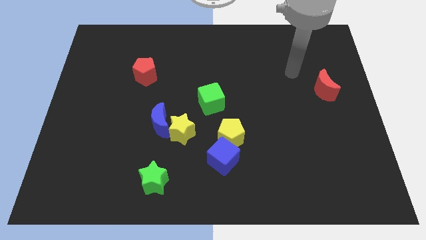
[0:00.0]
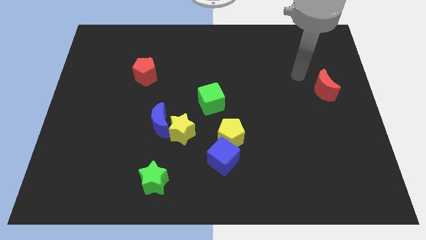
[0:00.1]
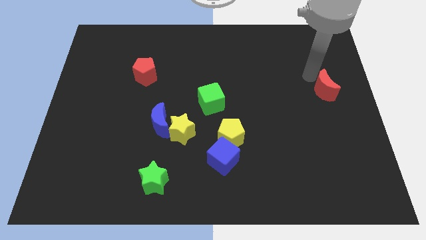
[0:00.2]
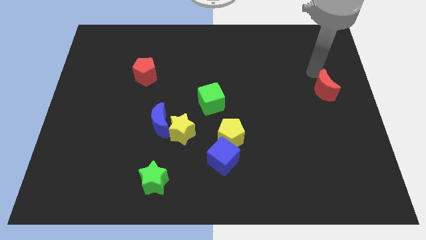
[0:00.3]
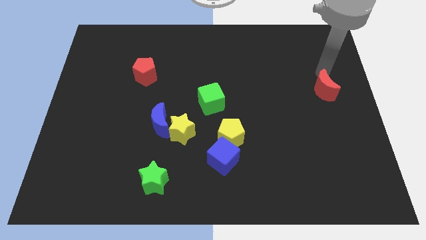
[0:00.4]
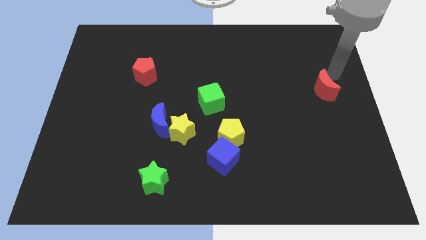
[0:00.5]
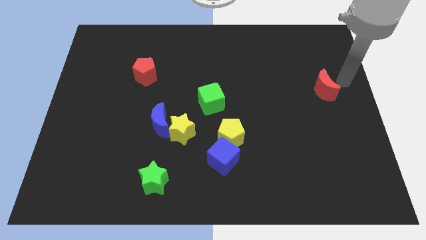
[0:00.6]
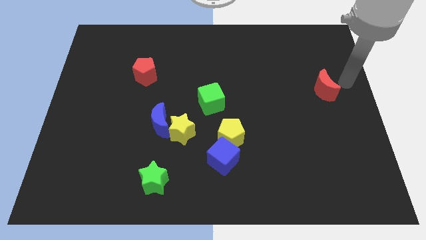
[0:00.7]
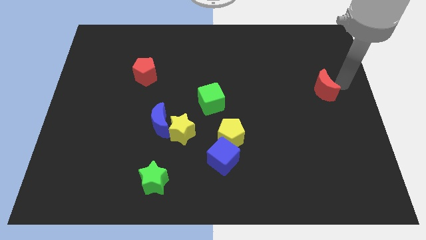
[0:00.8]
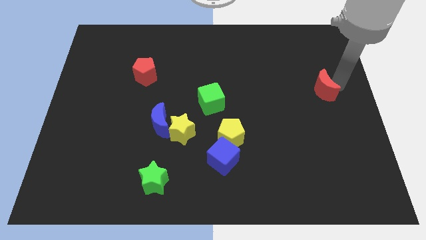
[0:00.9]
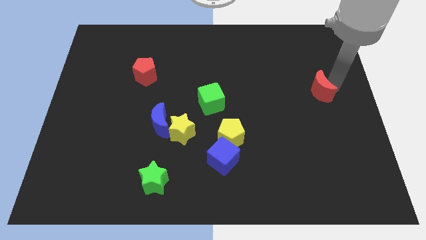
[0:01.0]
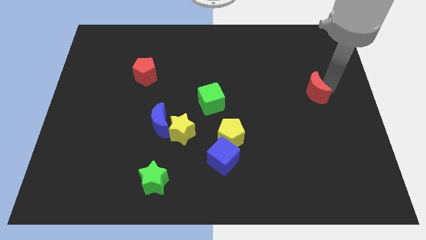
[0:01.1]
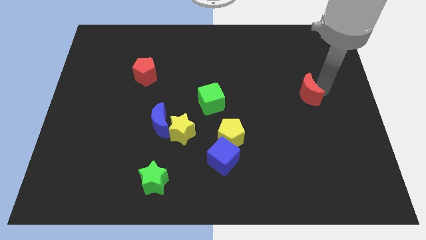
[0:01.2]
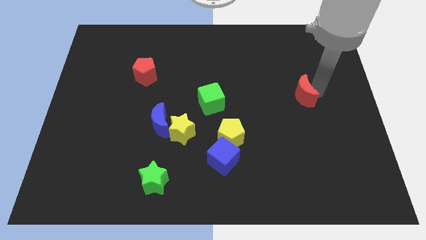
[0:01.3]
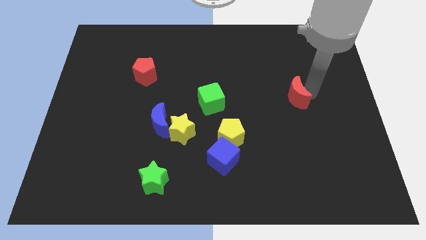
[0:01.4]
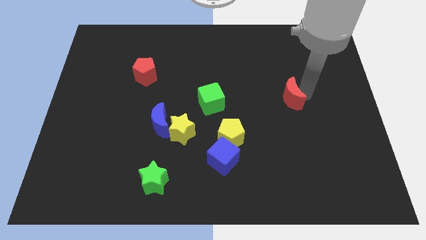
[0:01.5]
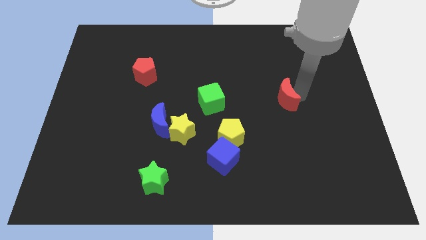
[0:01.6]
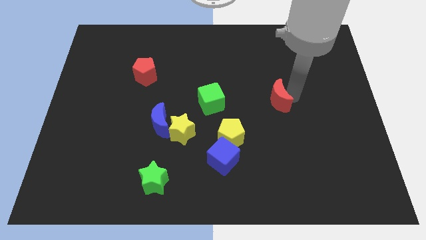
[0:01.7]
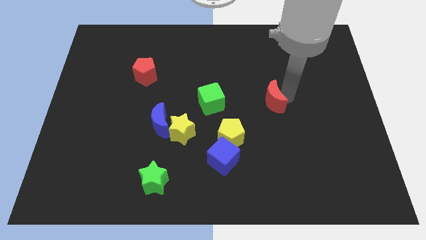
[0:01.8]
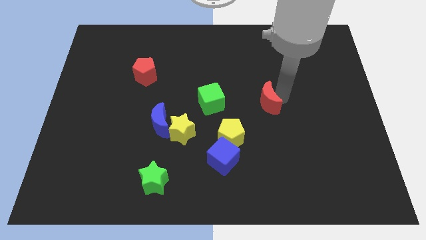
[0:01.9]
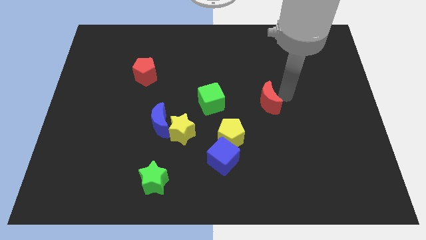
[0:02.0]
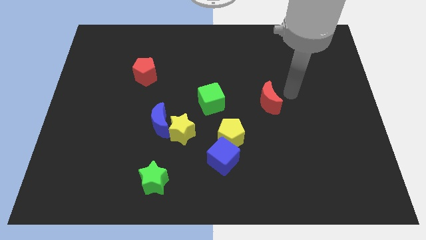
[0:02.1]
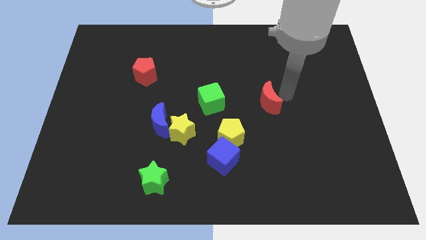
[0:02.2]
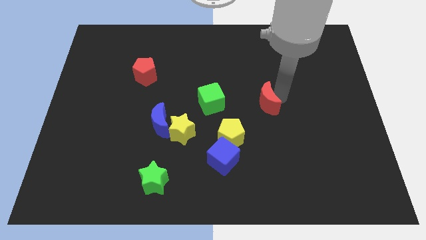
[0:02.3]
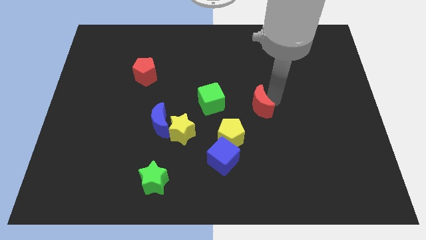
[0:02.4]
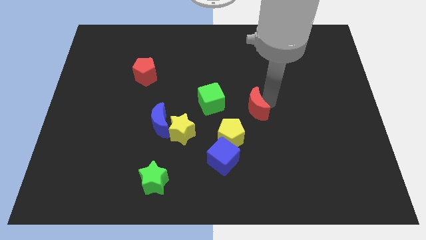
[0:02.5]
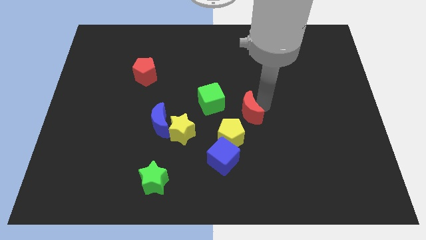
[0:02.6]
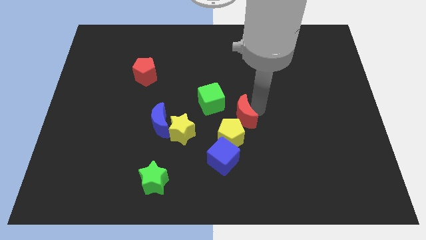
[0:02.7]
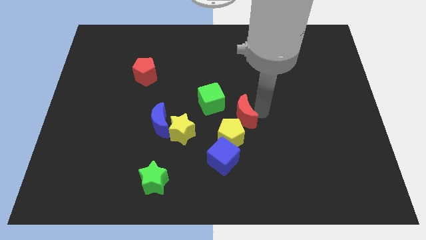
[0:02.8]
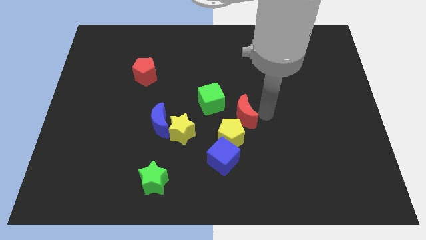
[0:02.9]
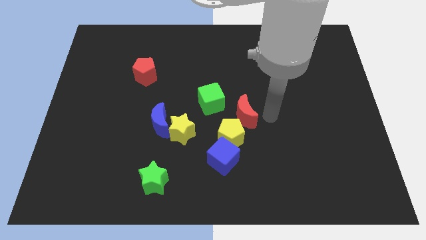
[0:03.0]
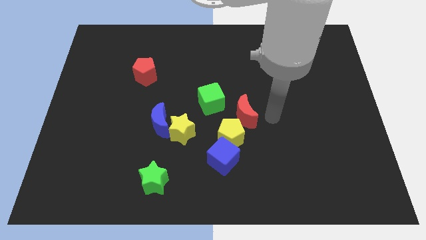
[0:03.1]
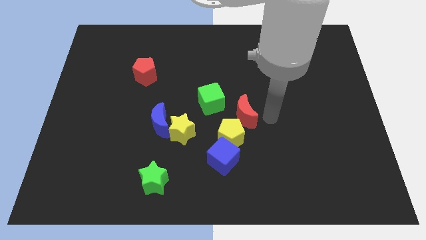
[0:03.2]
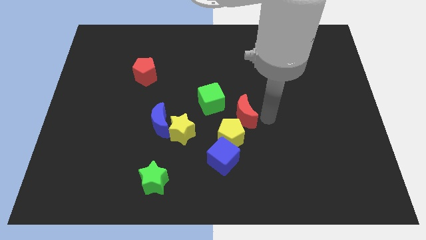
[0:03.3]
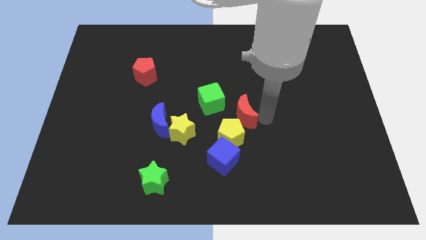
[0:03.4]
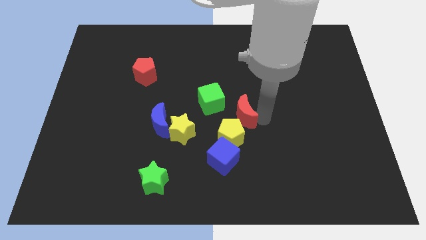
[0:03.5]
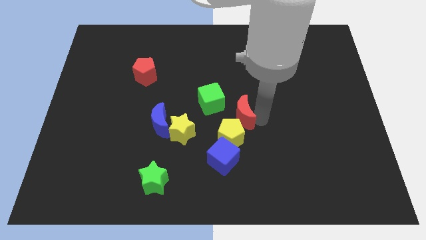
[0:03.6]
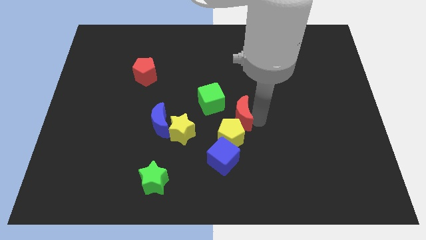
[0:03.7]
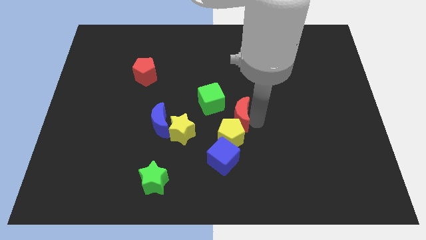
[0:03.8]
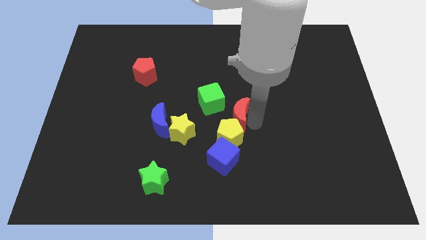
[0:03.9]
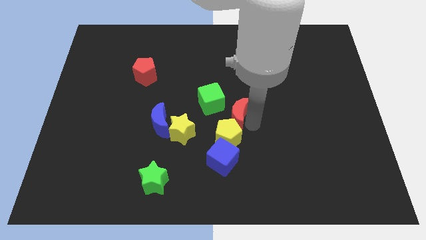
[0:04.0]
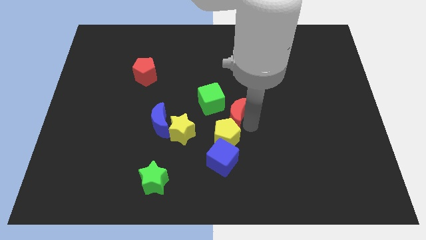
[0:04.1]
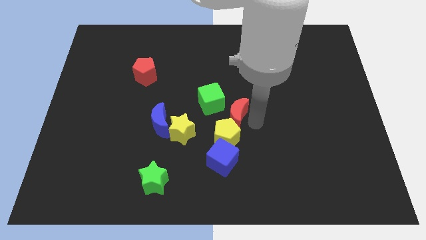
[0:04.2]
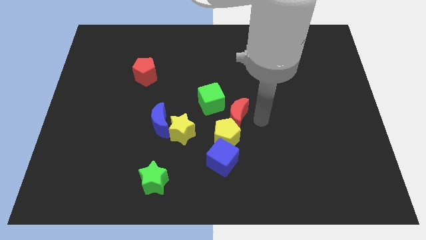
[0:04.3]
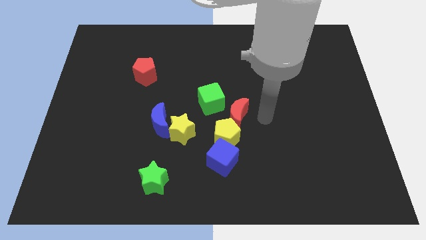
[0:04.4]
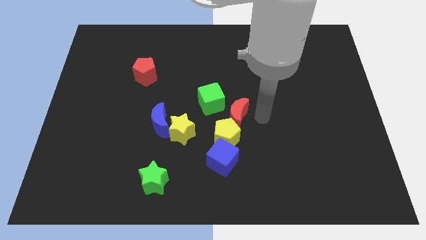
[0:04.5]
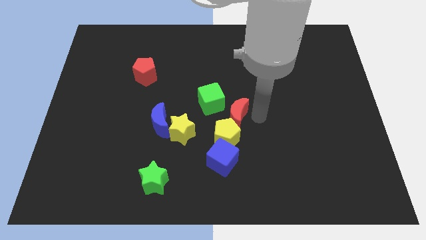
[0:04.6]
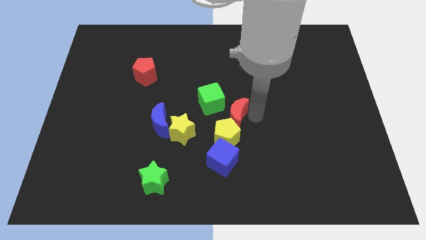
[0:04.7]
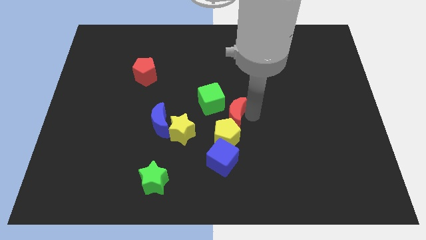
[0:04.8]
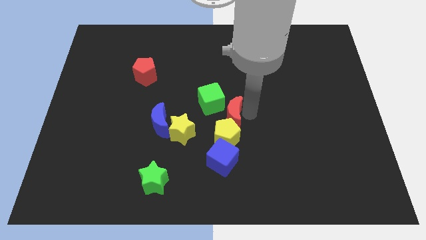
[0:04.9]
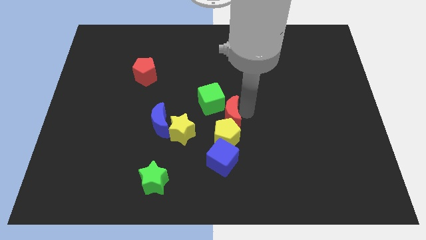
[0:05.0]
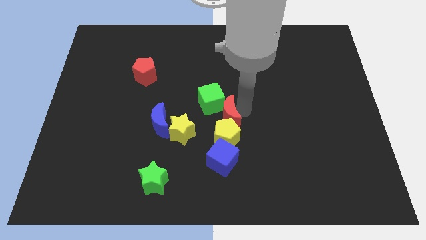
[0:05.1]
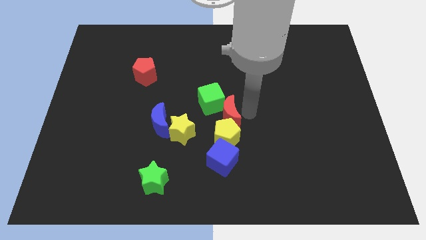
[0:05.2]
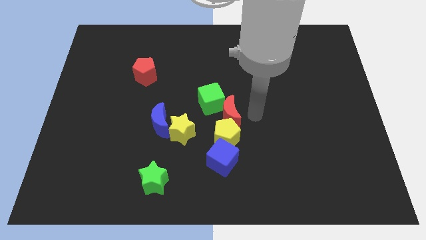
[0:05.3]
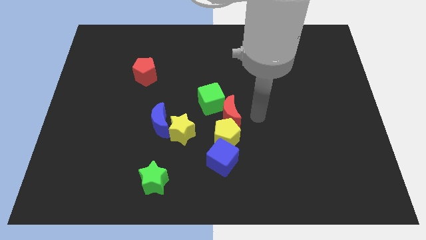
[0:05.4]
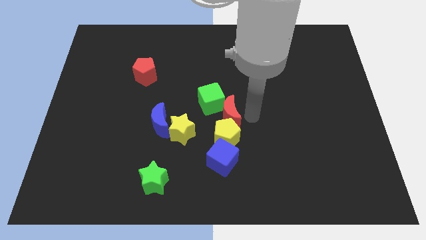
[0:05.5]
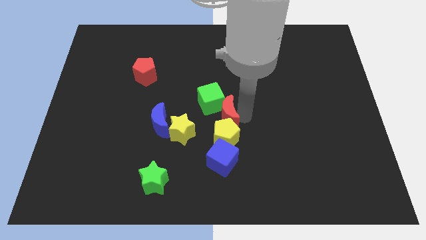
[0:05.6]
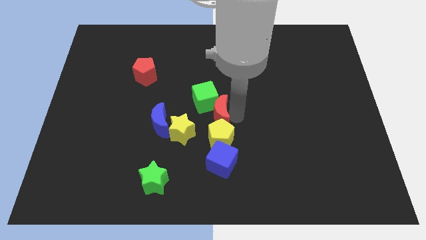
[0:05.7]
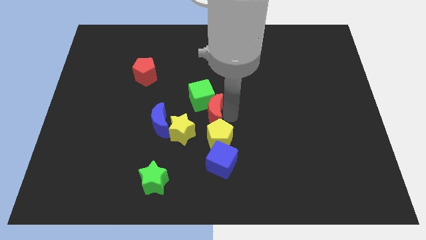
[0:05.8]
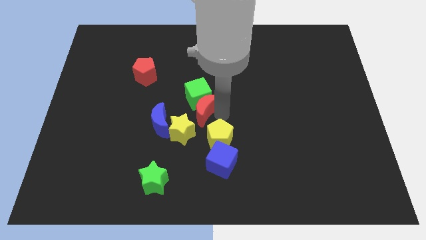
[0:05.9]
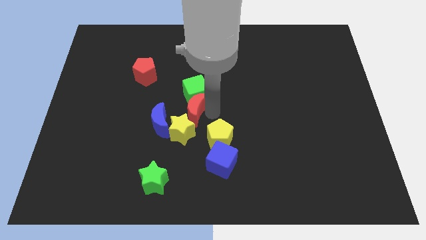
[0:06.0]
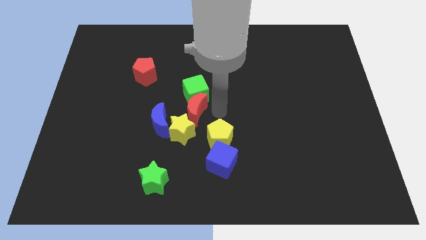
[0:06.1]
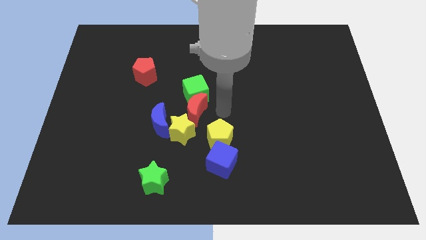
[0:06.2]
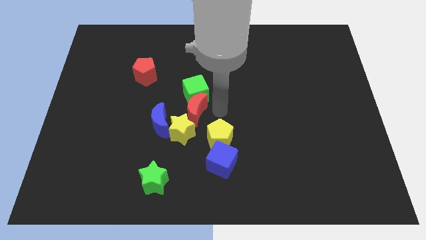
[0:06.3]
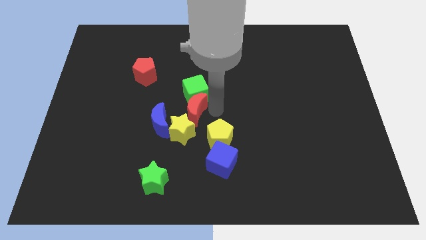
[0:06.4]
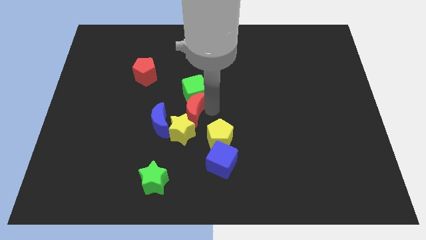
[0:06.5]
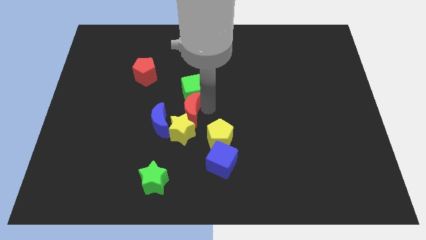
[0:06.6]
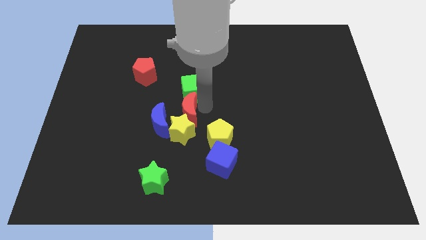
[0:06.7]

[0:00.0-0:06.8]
put the red moon to the top left of the yellow star
